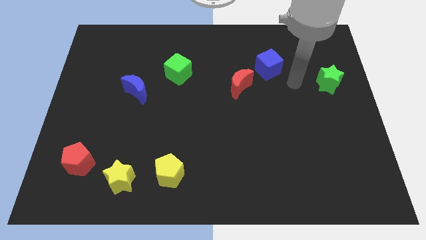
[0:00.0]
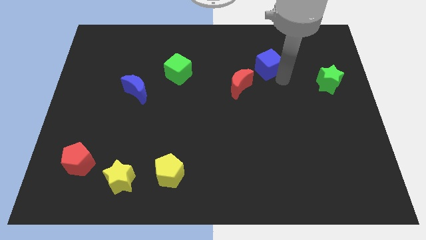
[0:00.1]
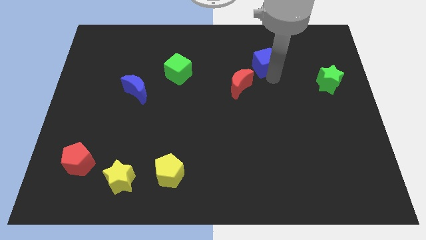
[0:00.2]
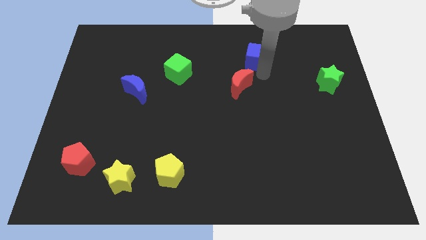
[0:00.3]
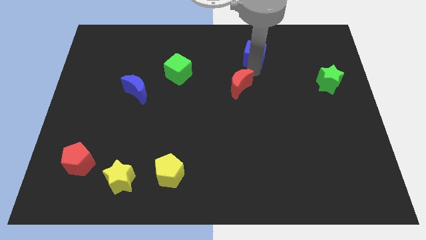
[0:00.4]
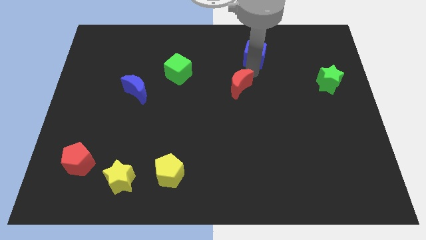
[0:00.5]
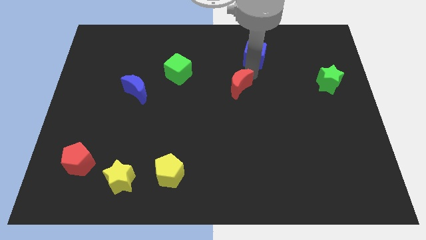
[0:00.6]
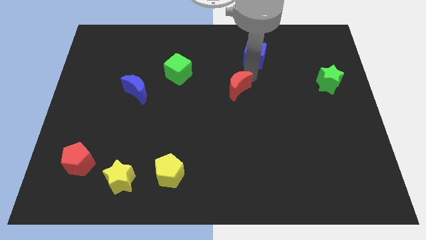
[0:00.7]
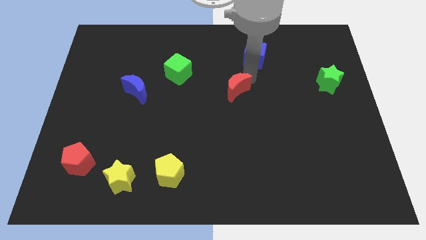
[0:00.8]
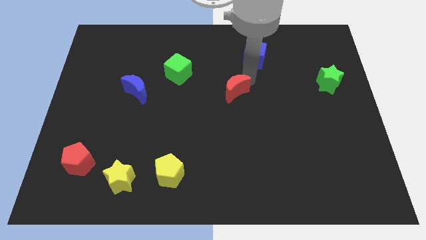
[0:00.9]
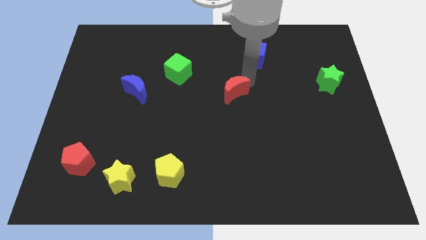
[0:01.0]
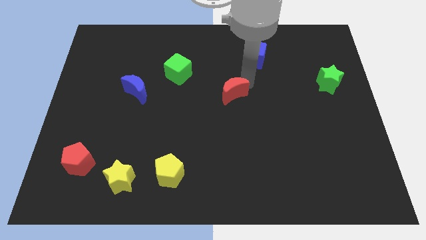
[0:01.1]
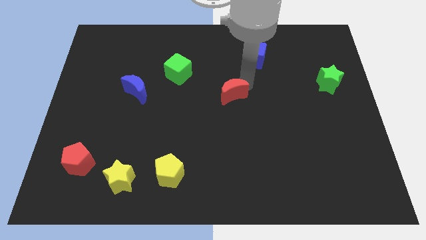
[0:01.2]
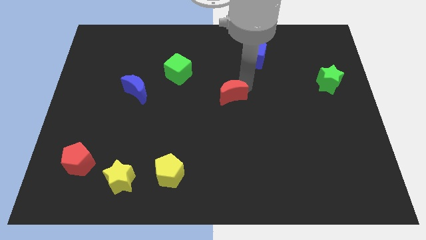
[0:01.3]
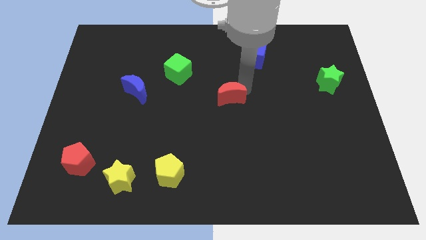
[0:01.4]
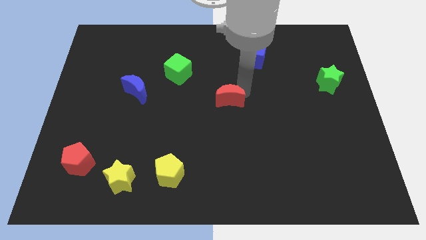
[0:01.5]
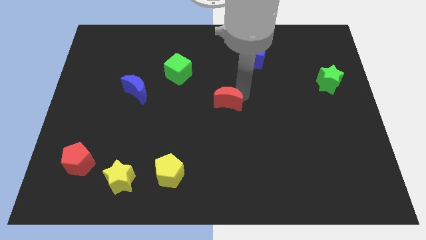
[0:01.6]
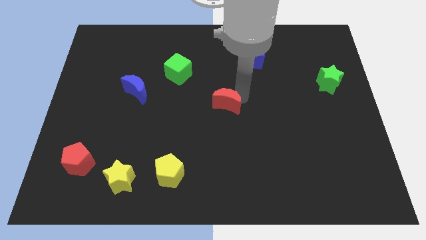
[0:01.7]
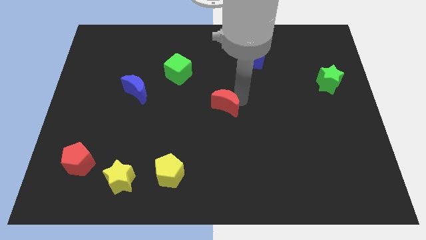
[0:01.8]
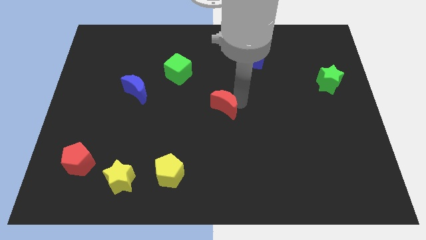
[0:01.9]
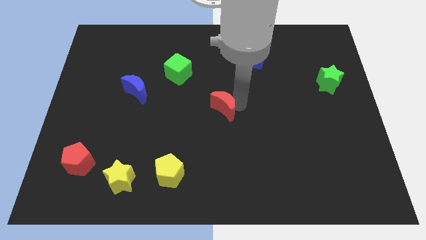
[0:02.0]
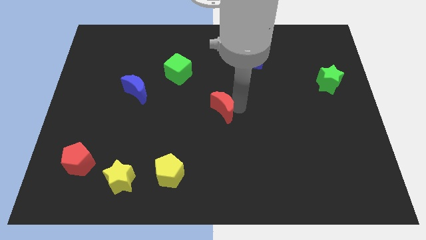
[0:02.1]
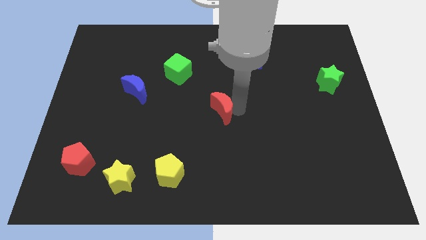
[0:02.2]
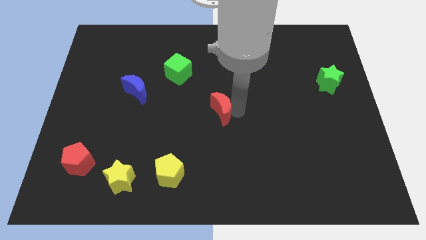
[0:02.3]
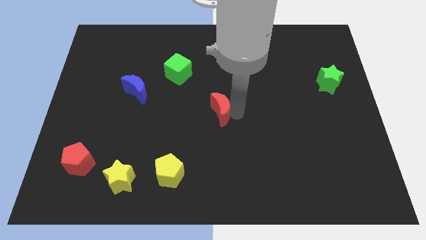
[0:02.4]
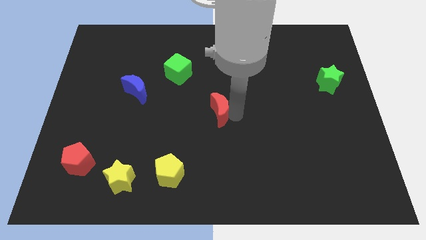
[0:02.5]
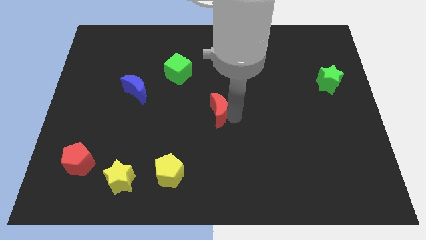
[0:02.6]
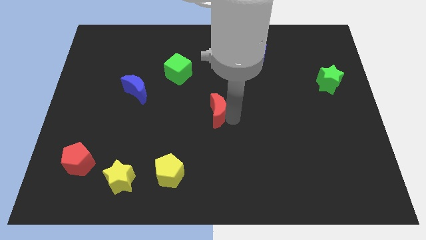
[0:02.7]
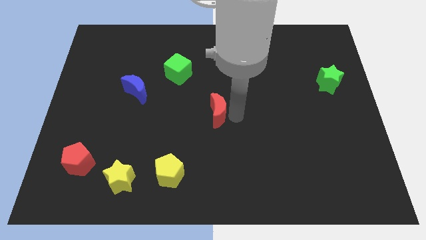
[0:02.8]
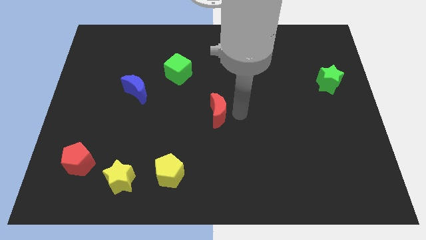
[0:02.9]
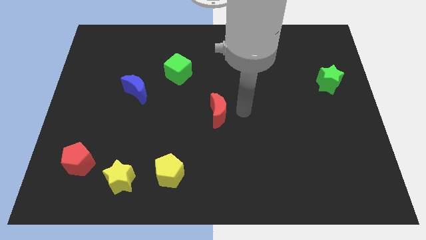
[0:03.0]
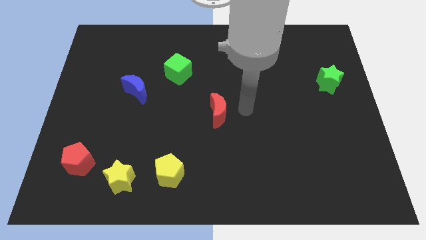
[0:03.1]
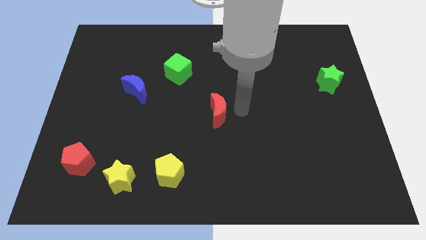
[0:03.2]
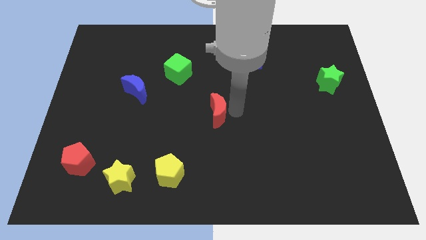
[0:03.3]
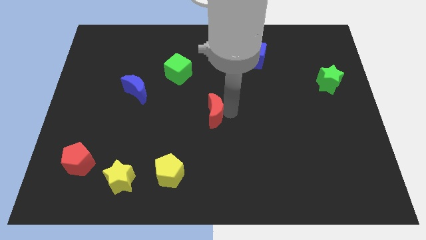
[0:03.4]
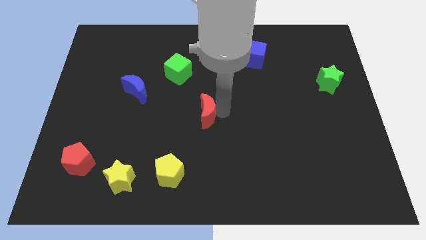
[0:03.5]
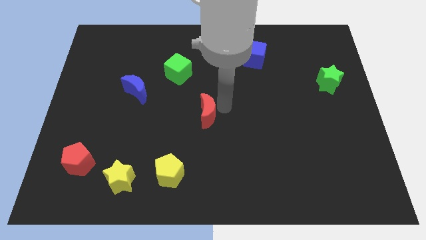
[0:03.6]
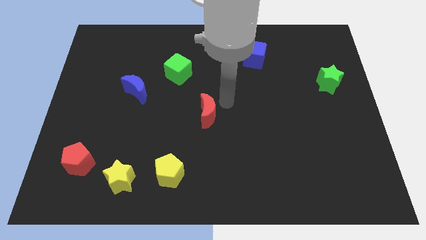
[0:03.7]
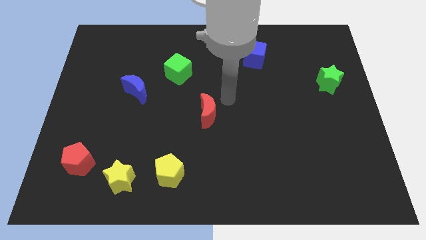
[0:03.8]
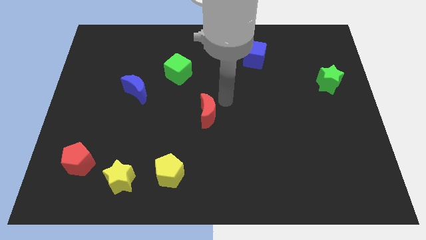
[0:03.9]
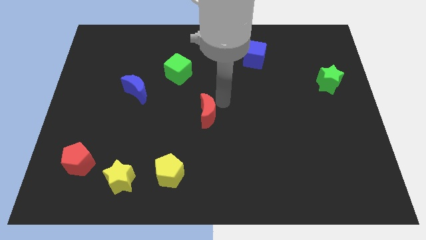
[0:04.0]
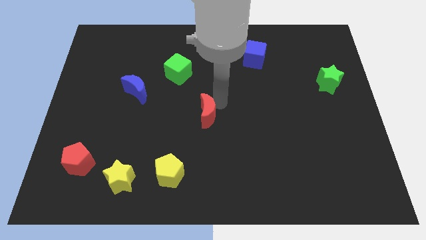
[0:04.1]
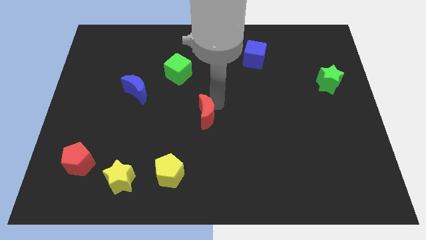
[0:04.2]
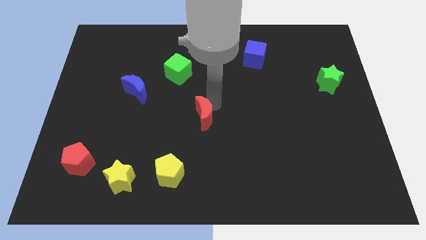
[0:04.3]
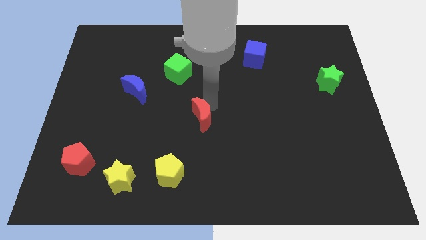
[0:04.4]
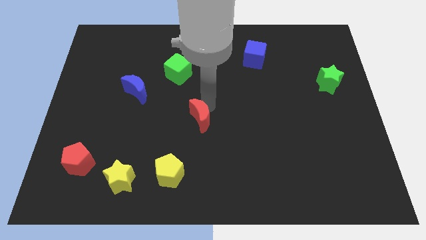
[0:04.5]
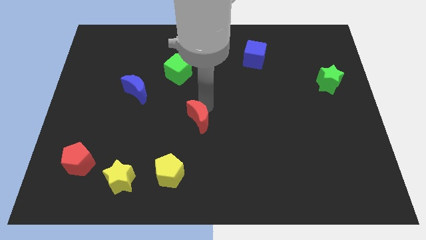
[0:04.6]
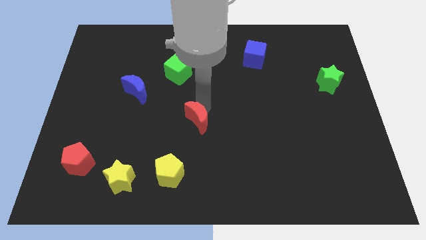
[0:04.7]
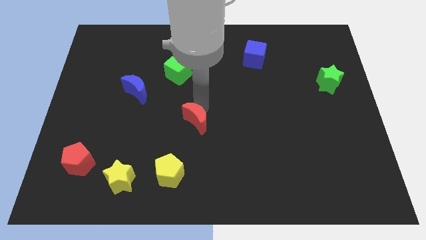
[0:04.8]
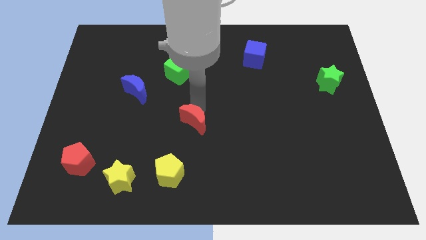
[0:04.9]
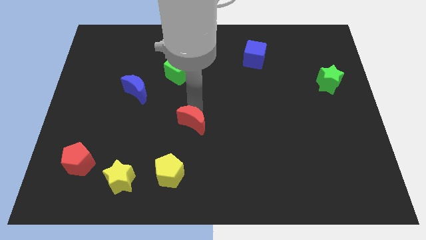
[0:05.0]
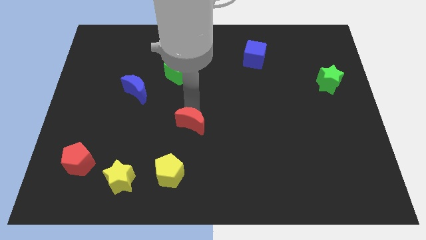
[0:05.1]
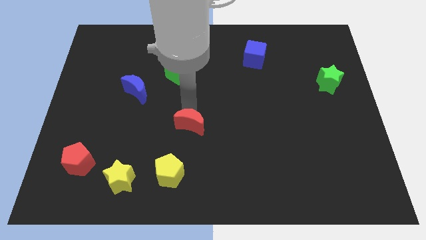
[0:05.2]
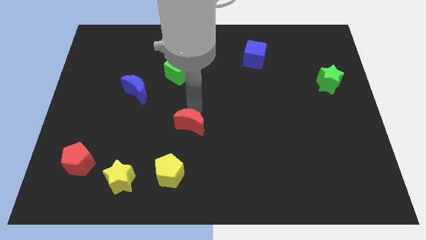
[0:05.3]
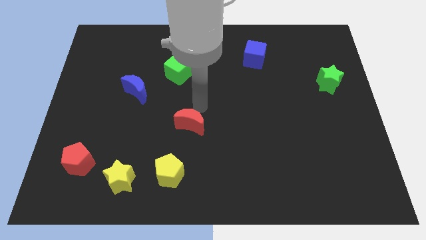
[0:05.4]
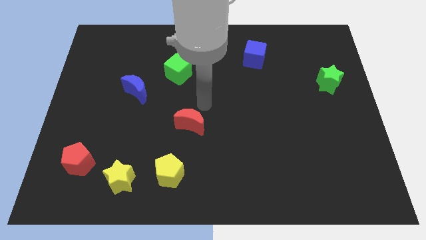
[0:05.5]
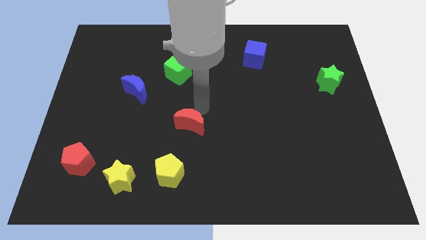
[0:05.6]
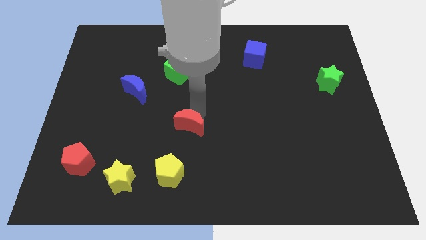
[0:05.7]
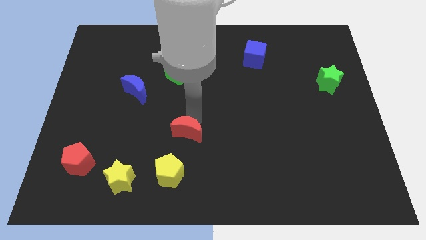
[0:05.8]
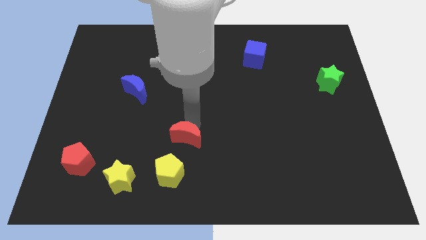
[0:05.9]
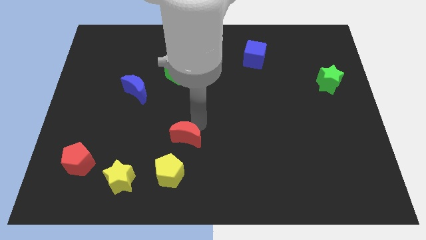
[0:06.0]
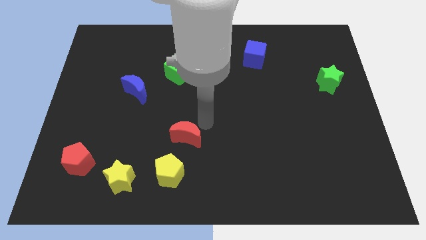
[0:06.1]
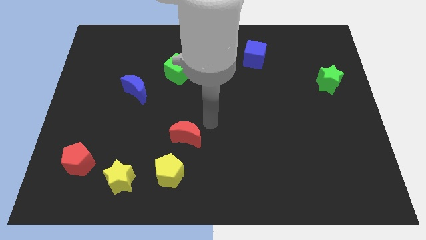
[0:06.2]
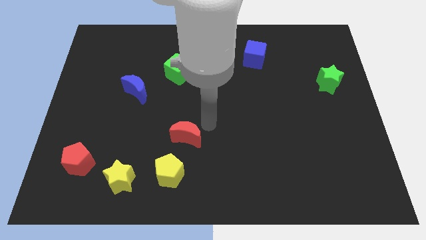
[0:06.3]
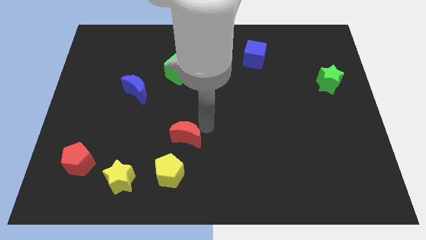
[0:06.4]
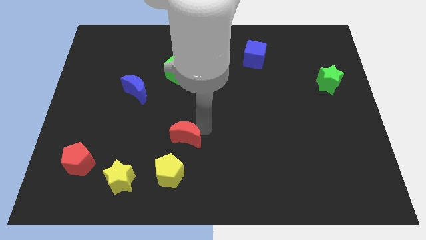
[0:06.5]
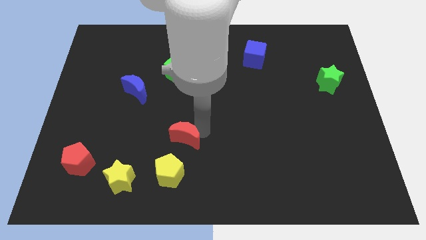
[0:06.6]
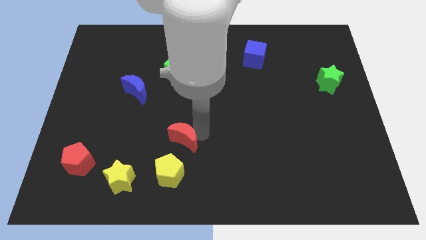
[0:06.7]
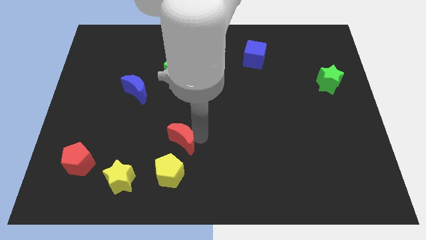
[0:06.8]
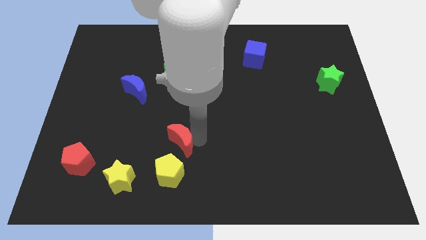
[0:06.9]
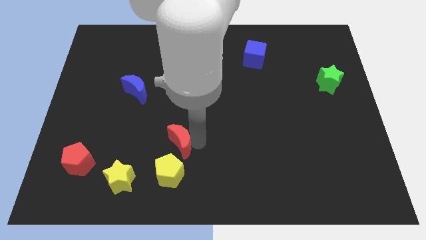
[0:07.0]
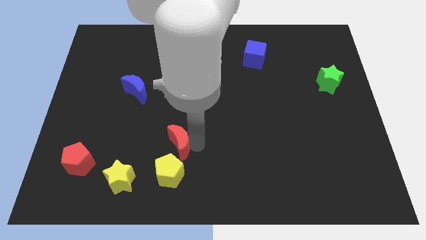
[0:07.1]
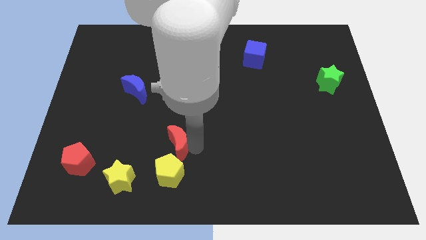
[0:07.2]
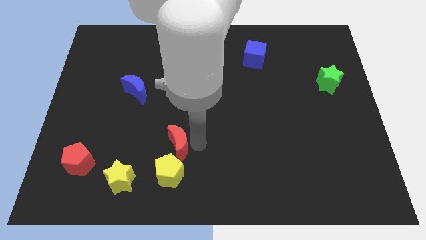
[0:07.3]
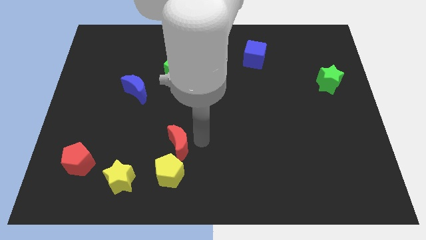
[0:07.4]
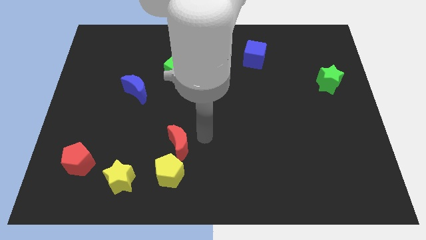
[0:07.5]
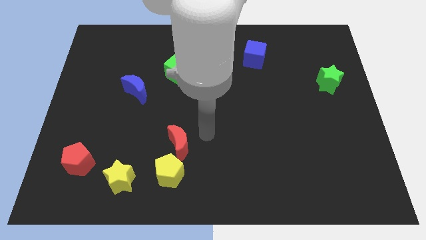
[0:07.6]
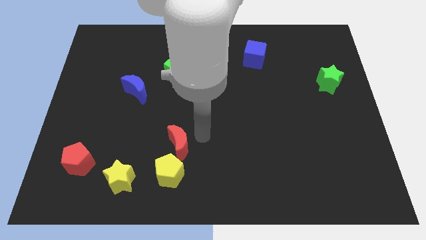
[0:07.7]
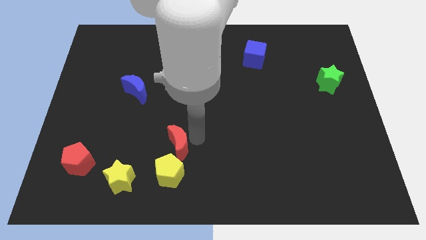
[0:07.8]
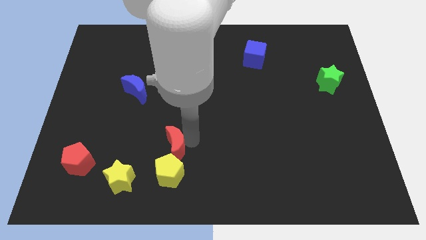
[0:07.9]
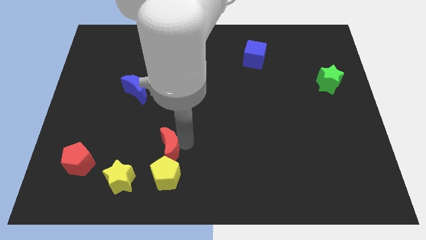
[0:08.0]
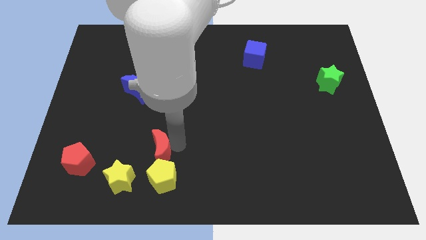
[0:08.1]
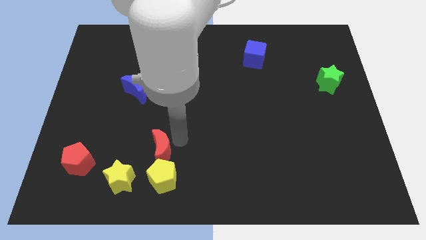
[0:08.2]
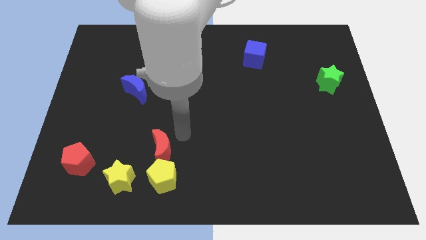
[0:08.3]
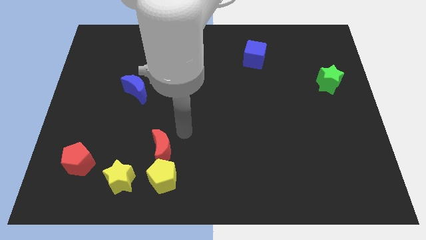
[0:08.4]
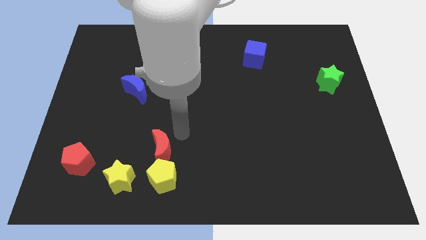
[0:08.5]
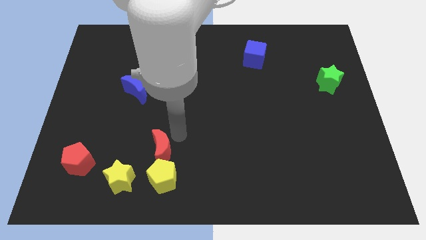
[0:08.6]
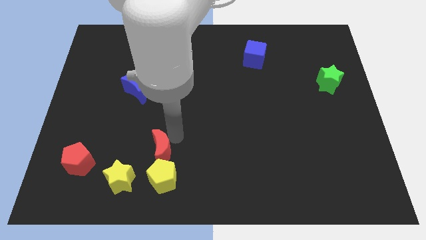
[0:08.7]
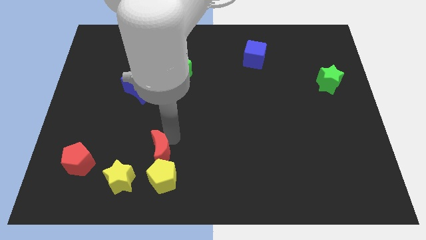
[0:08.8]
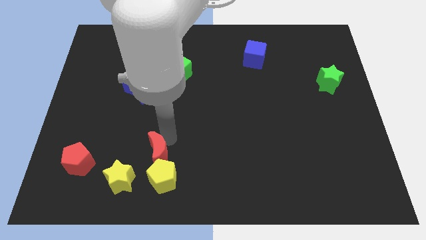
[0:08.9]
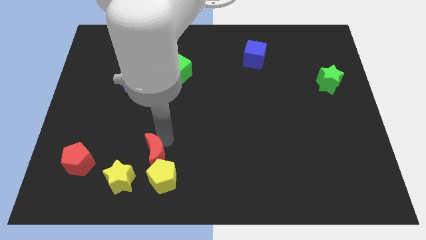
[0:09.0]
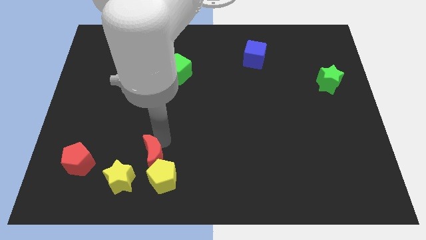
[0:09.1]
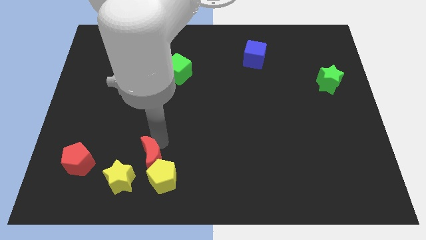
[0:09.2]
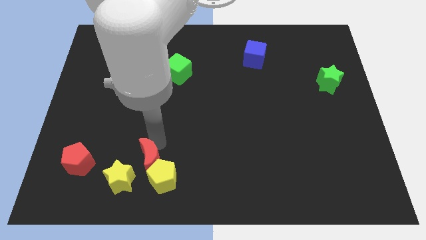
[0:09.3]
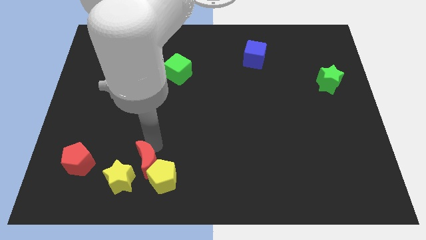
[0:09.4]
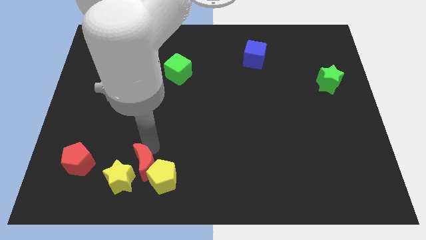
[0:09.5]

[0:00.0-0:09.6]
move the red moon close to the yellow star
